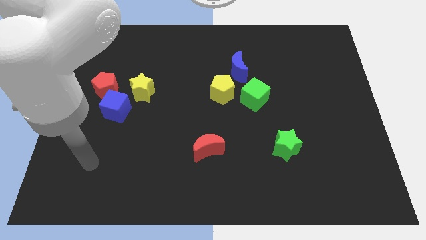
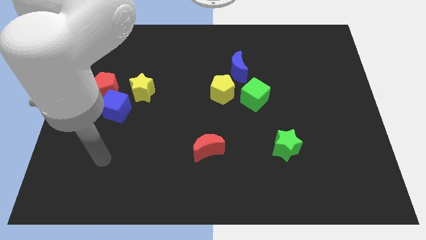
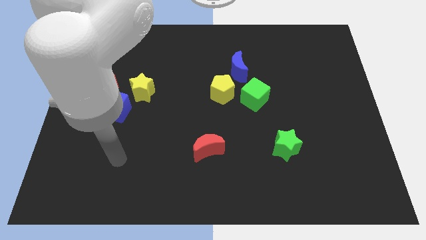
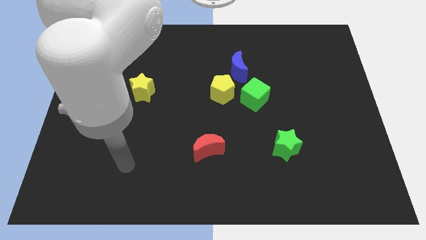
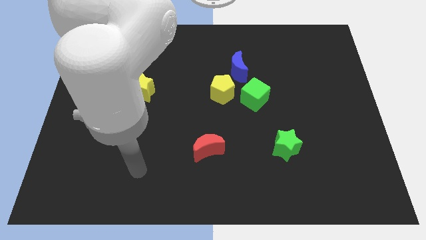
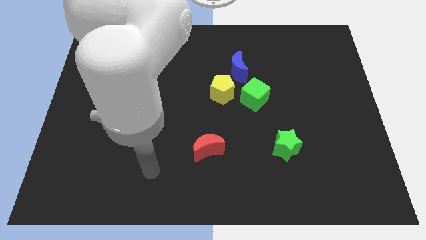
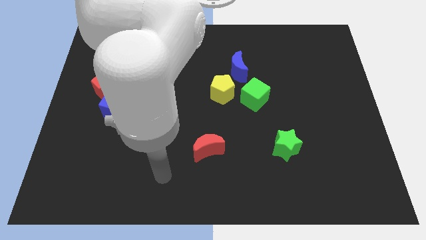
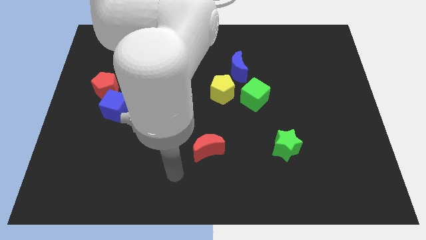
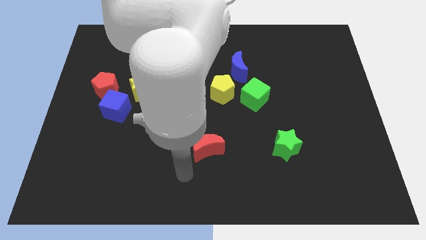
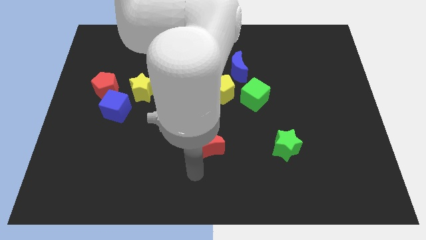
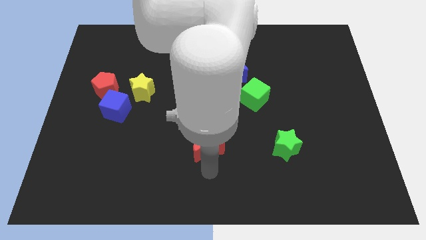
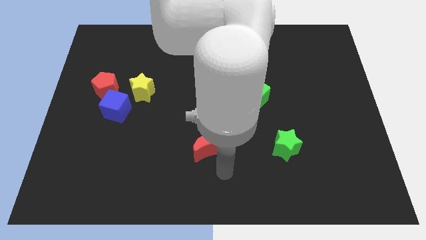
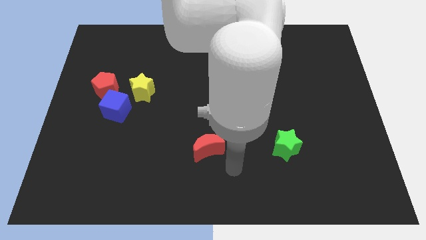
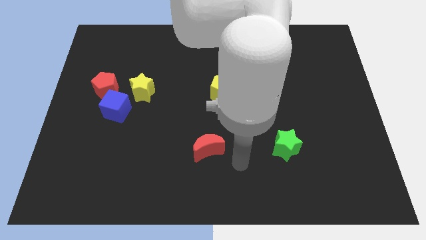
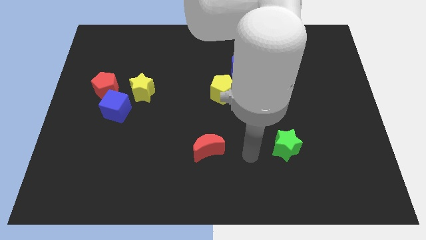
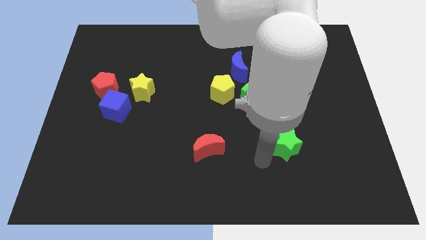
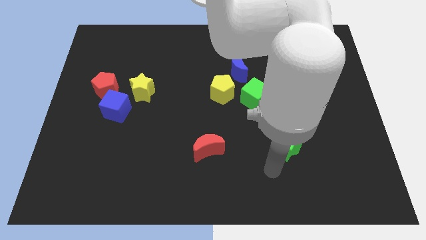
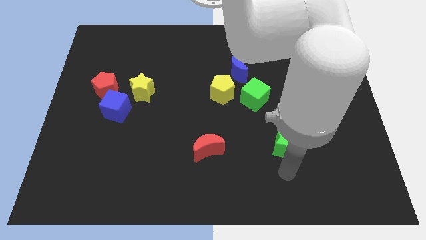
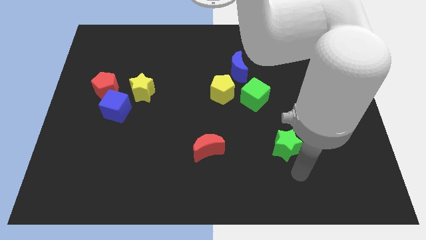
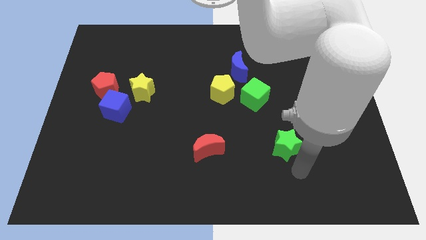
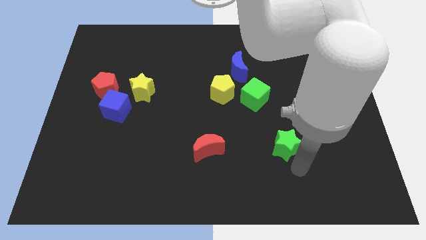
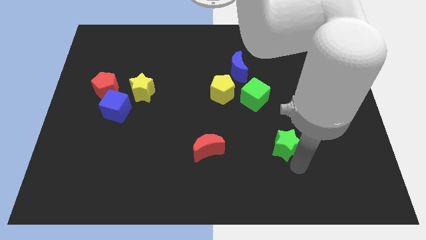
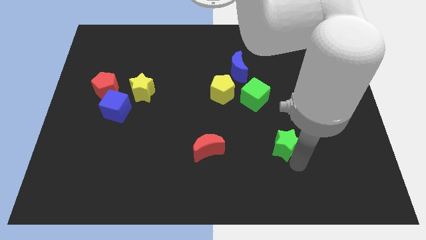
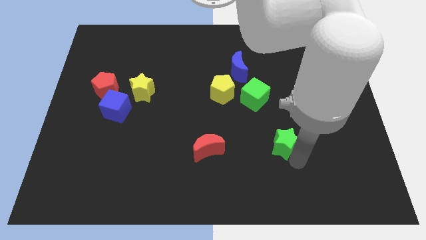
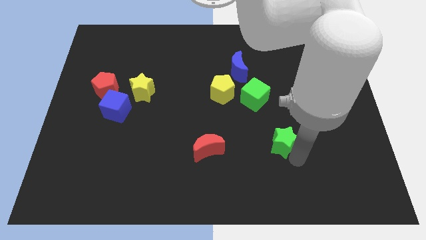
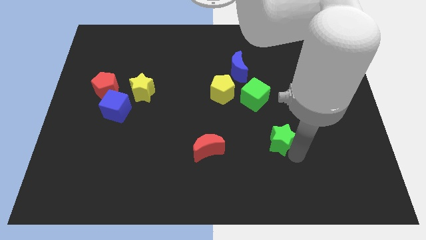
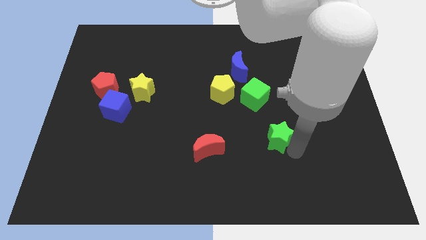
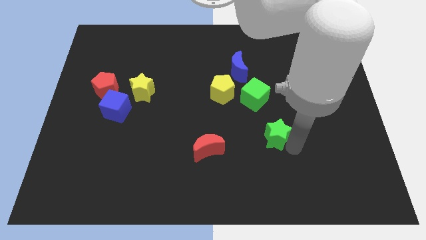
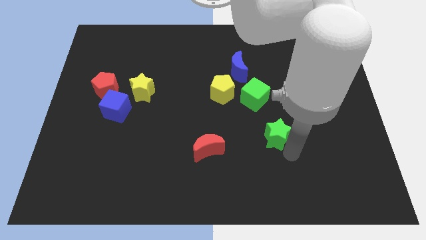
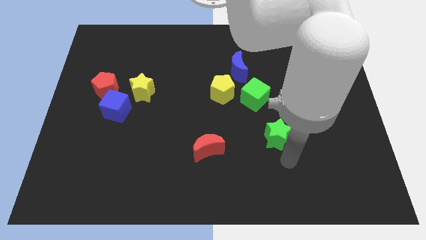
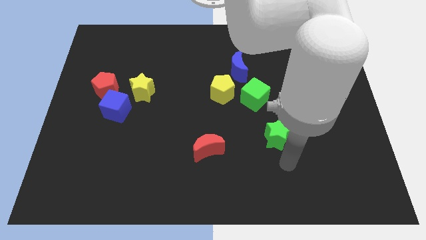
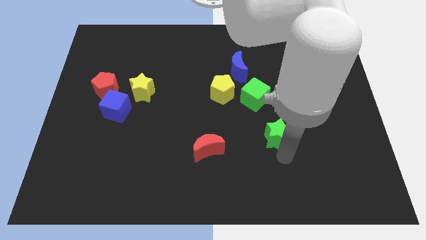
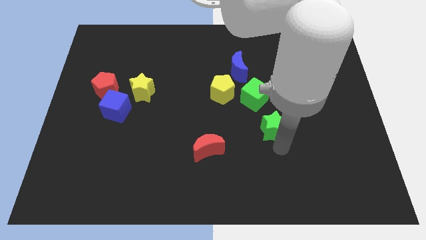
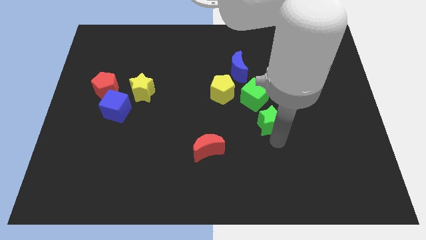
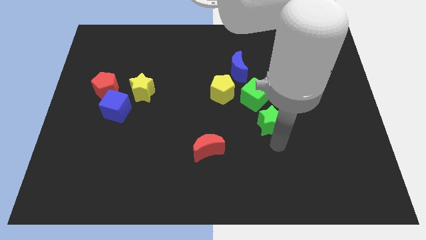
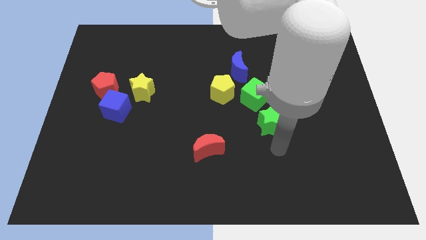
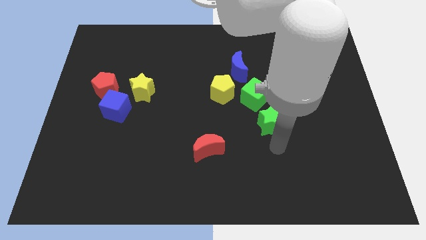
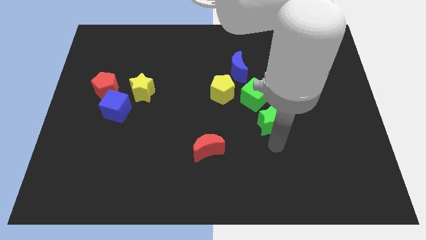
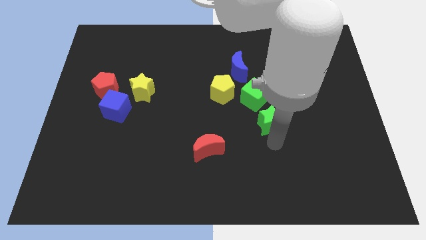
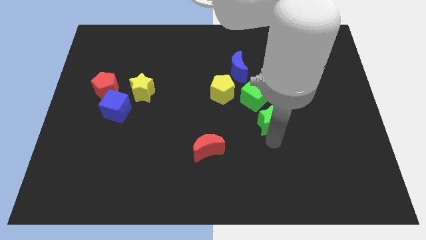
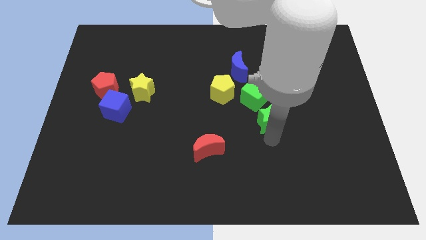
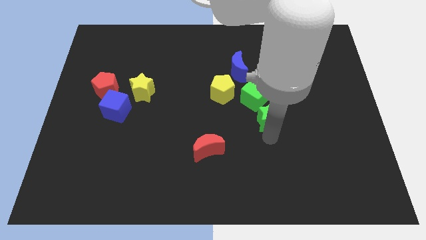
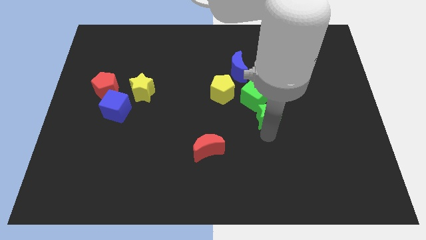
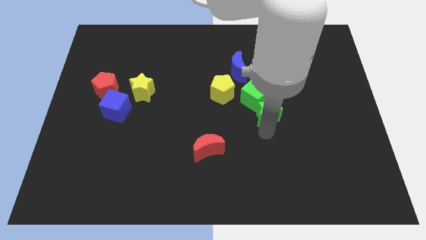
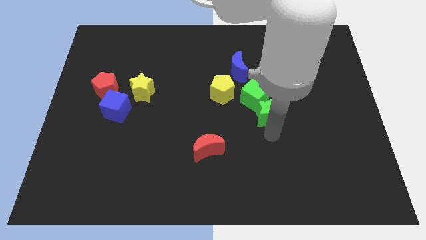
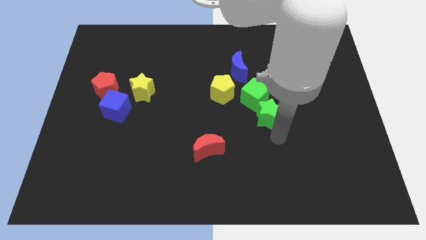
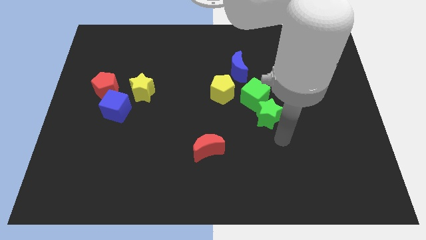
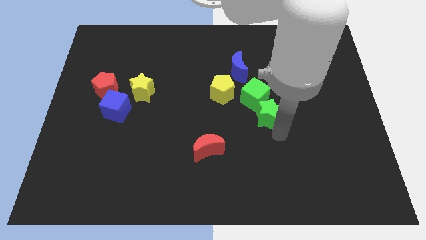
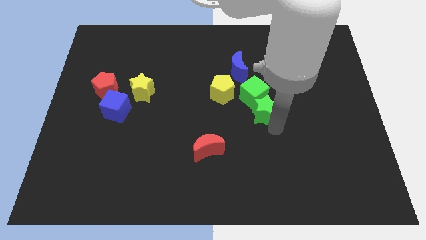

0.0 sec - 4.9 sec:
move the green star close to the green cube

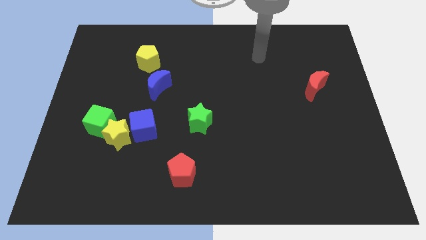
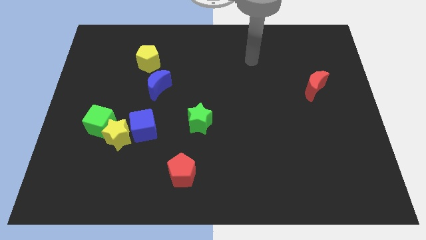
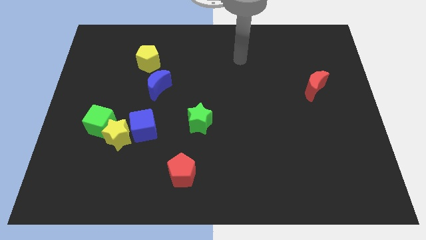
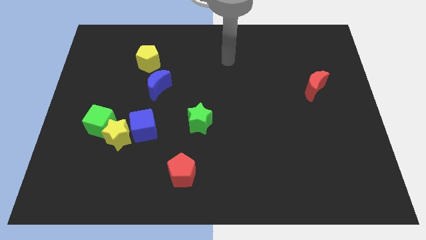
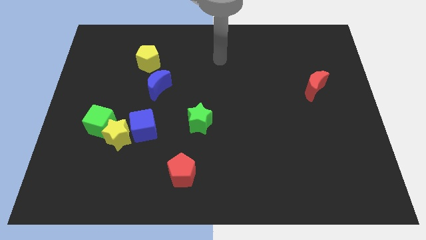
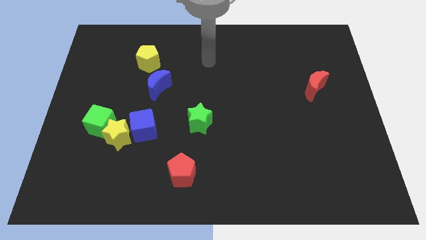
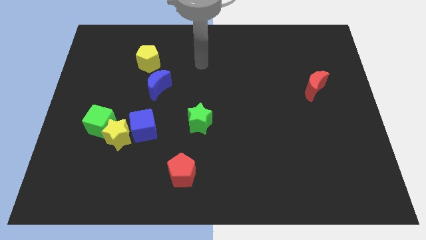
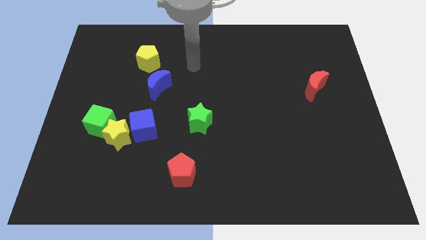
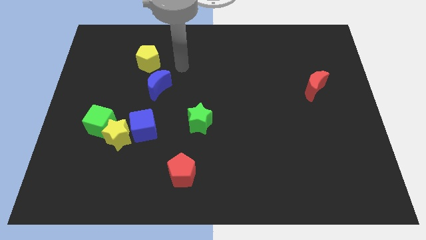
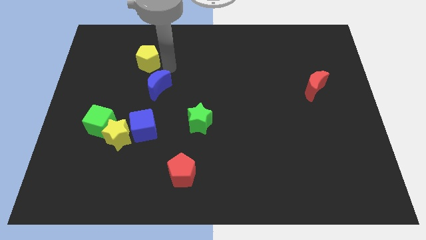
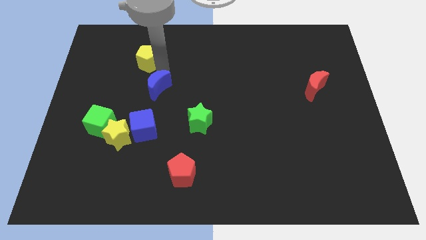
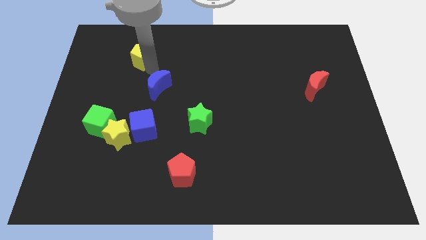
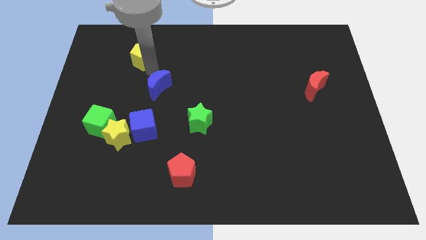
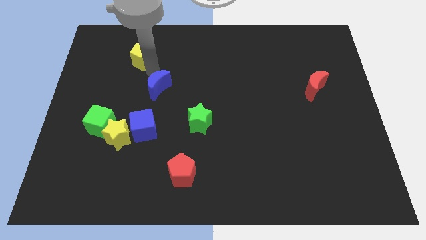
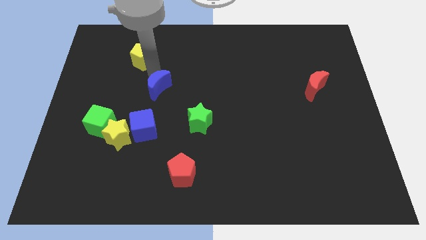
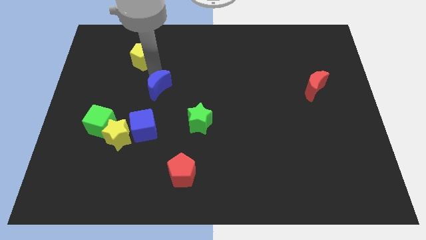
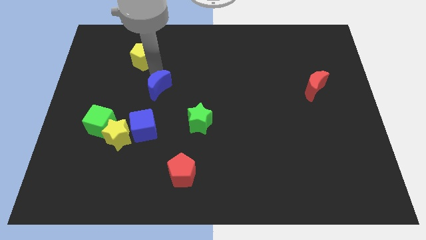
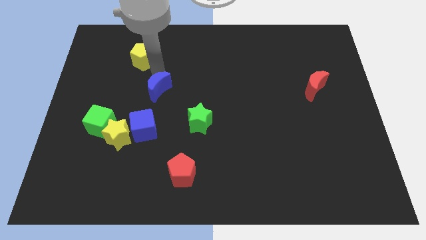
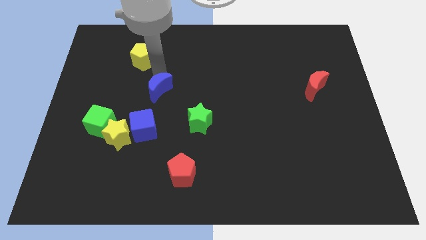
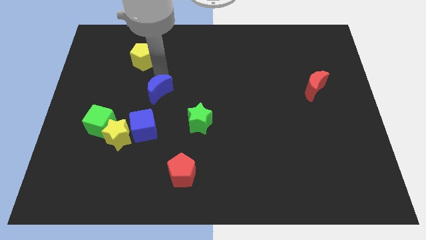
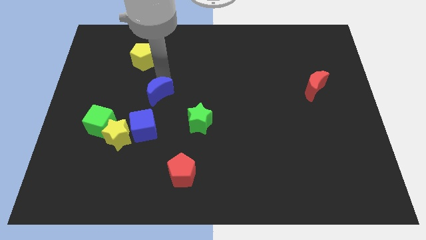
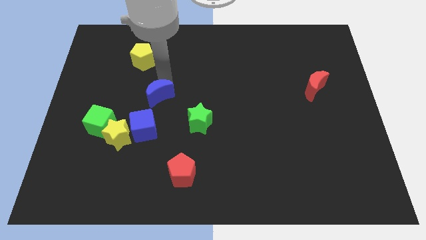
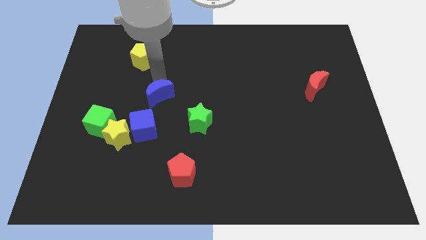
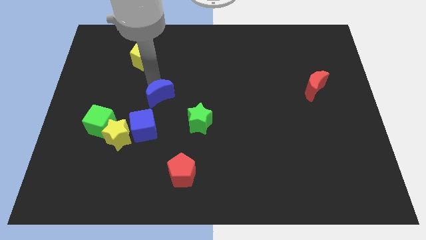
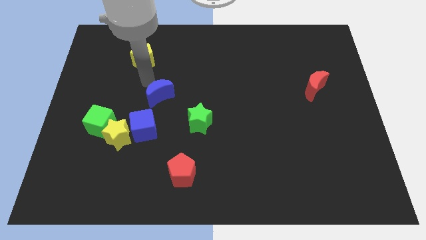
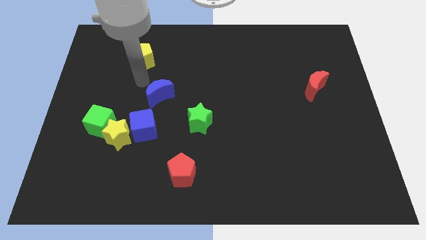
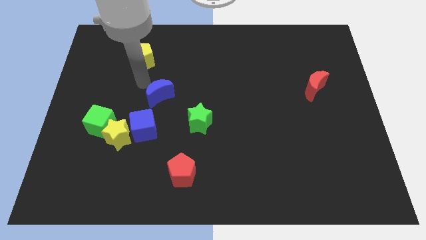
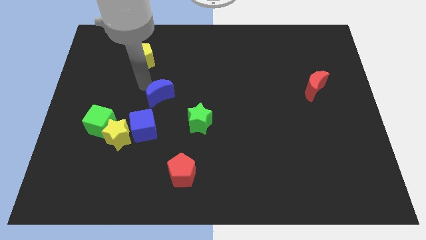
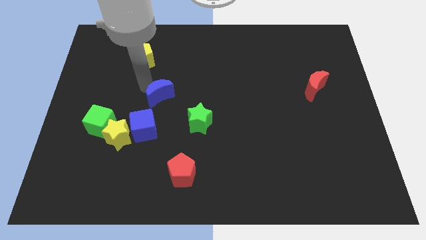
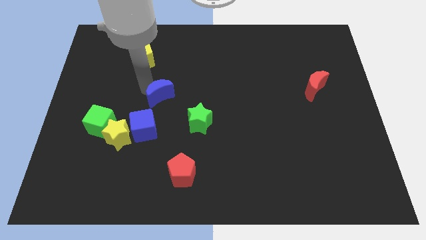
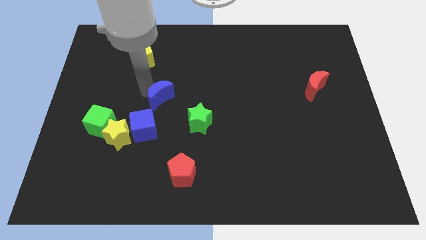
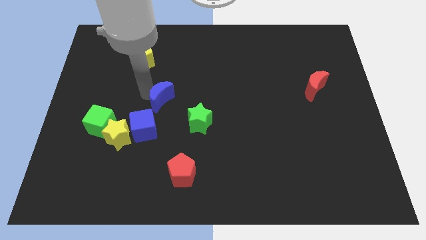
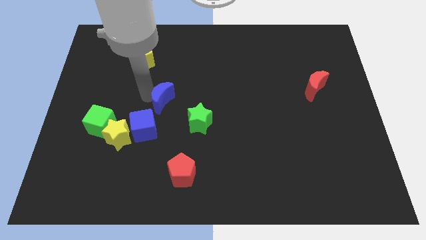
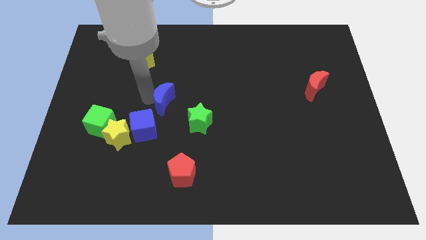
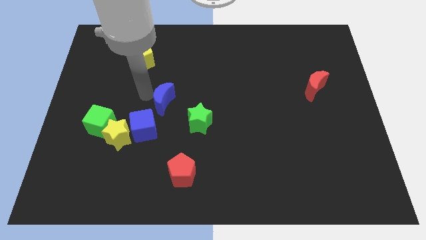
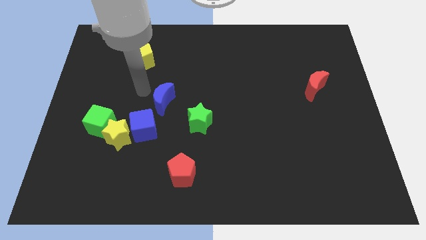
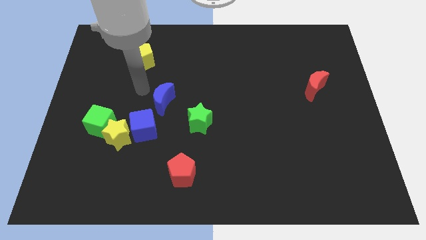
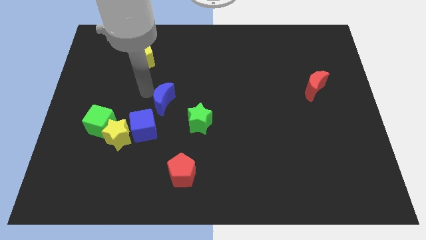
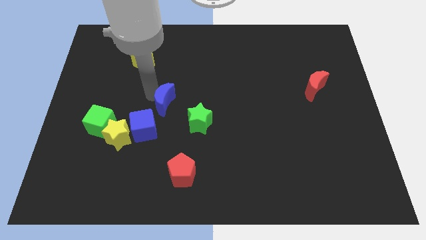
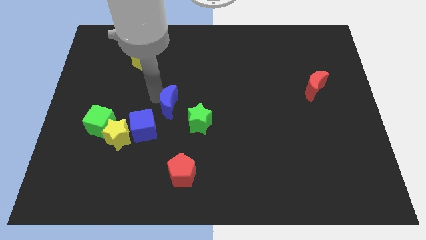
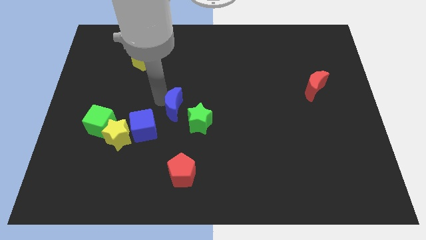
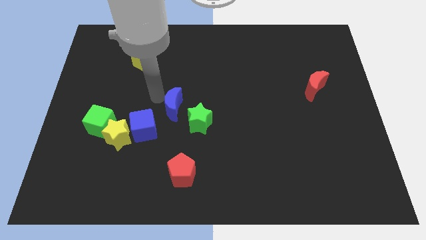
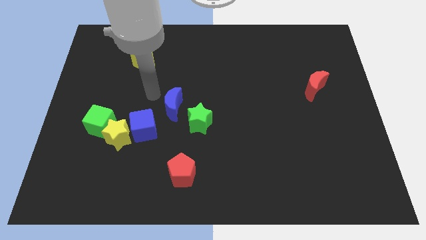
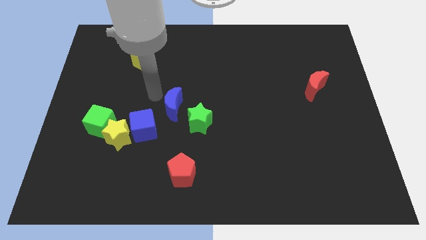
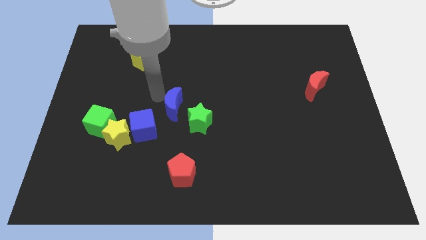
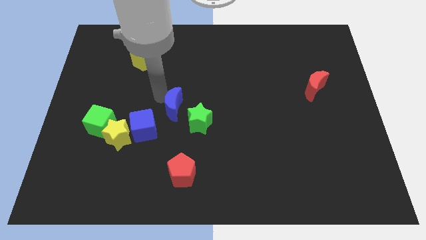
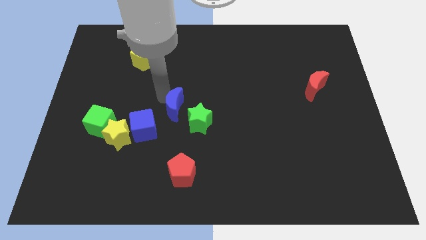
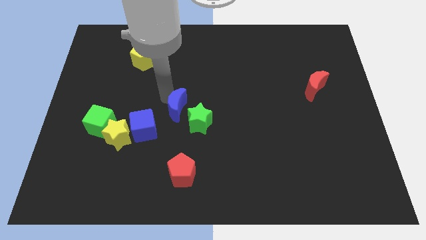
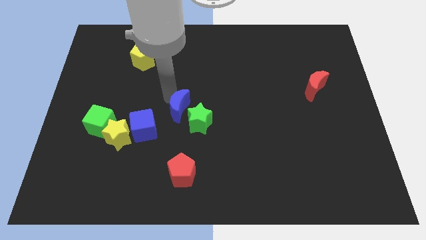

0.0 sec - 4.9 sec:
put the blue moon next to the green star
